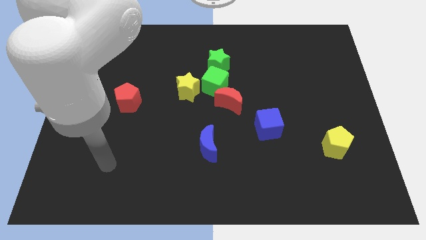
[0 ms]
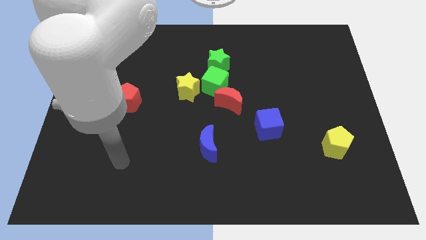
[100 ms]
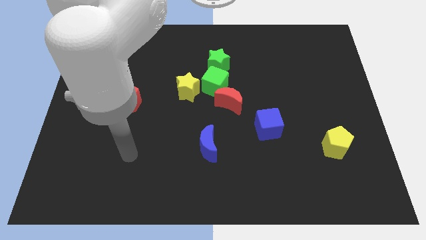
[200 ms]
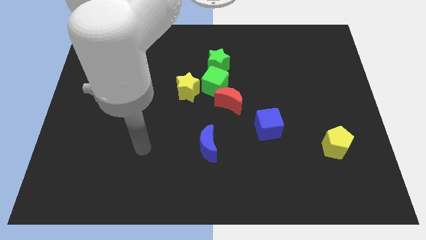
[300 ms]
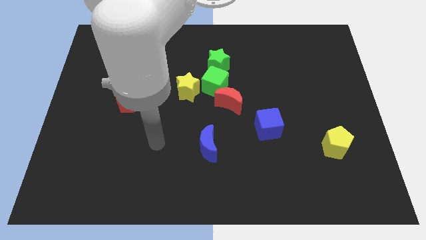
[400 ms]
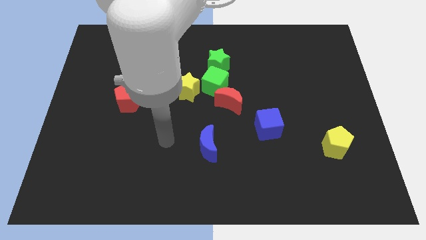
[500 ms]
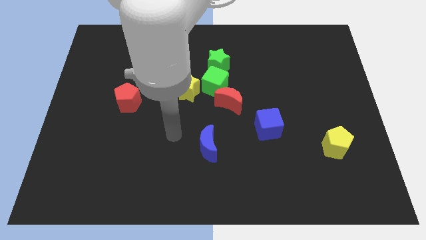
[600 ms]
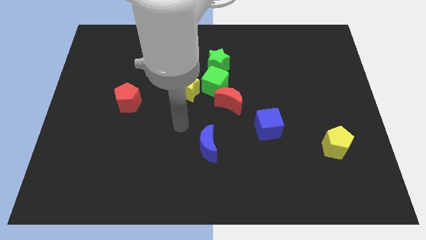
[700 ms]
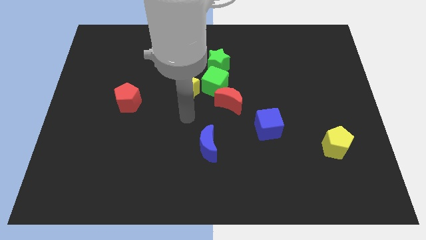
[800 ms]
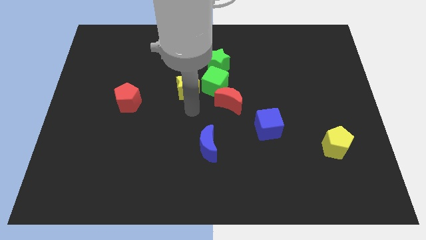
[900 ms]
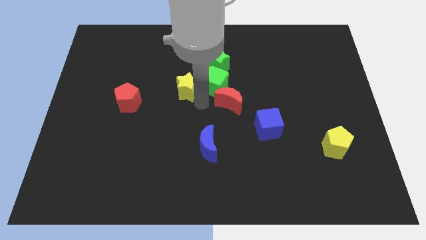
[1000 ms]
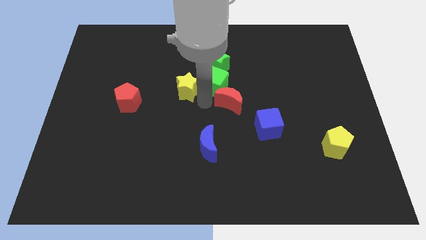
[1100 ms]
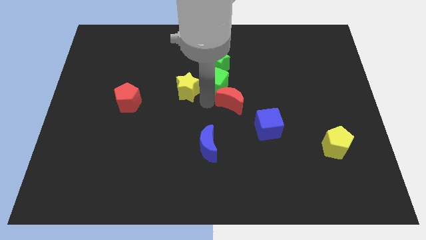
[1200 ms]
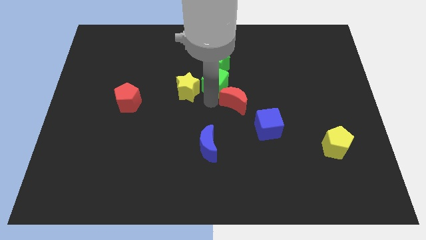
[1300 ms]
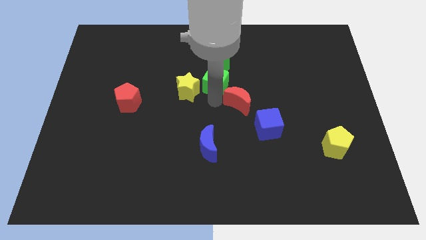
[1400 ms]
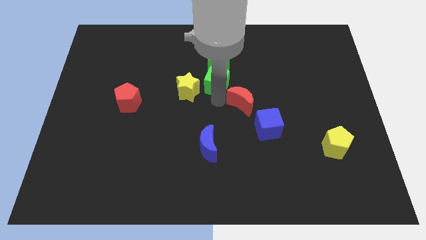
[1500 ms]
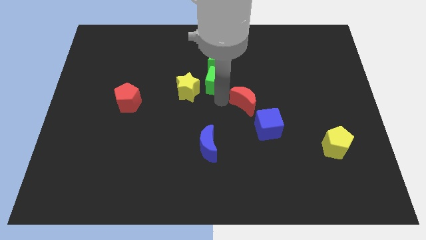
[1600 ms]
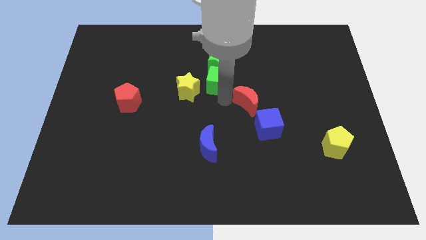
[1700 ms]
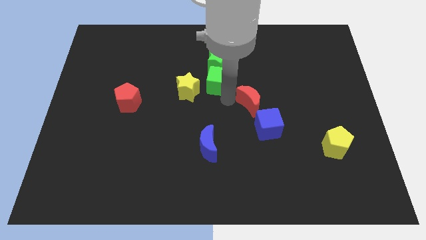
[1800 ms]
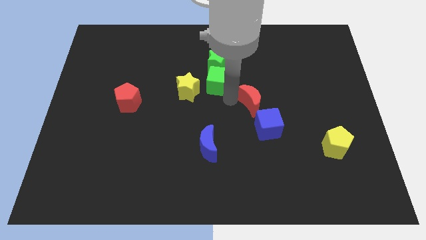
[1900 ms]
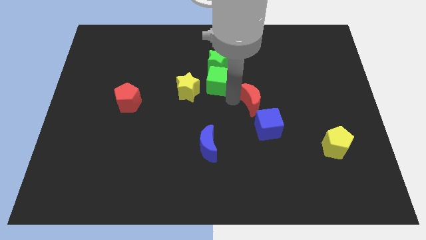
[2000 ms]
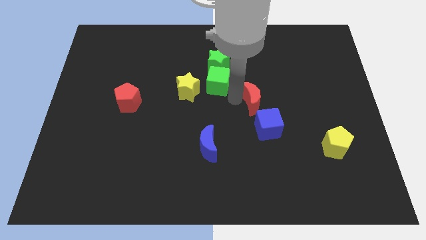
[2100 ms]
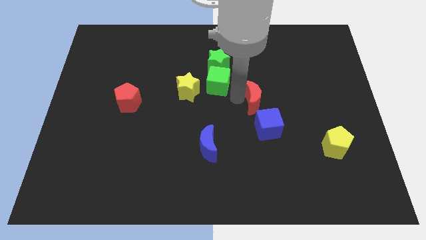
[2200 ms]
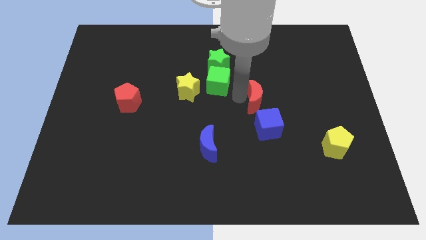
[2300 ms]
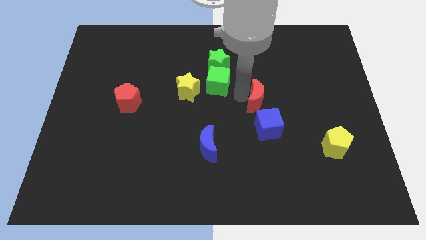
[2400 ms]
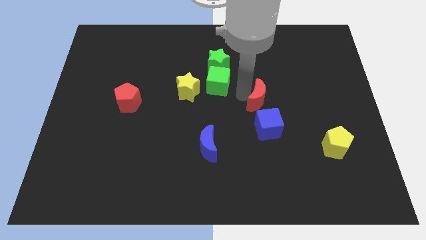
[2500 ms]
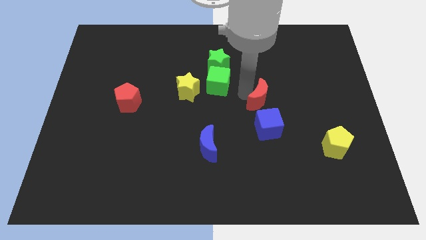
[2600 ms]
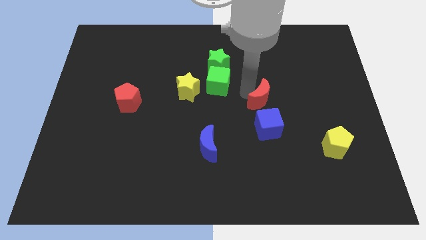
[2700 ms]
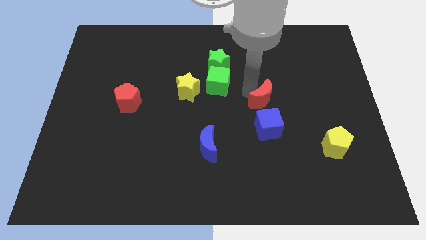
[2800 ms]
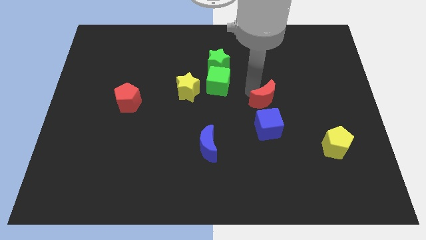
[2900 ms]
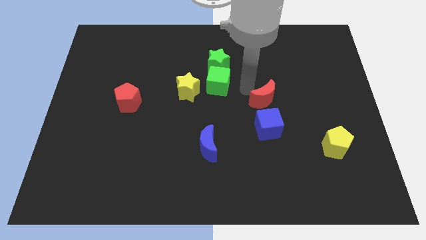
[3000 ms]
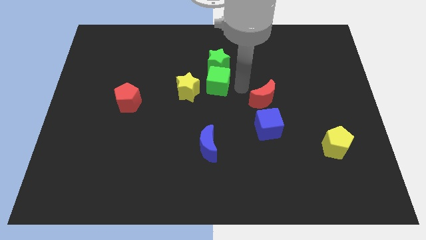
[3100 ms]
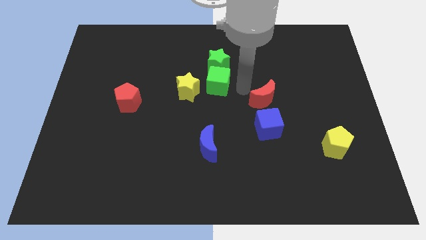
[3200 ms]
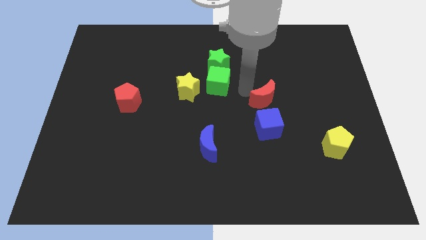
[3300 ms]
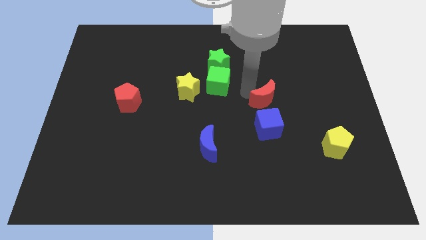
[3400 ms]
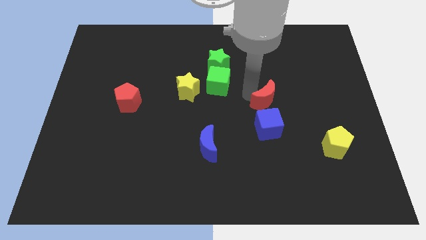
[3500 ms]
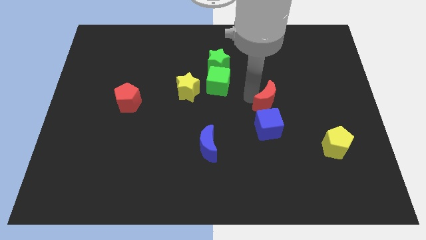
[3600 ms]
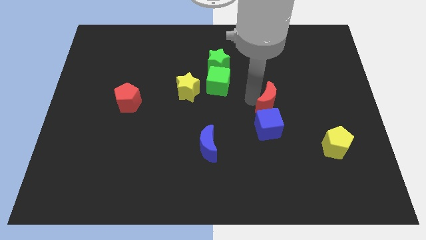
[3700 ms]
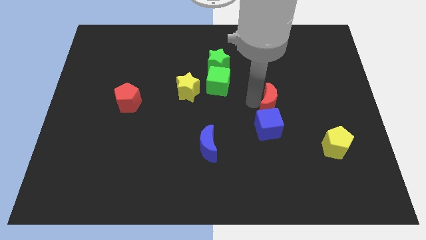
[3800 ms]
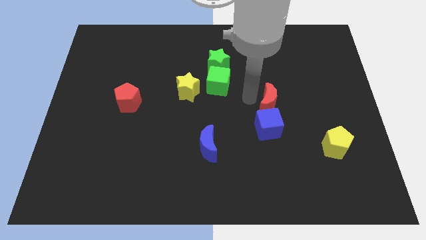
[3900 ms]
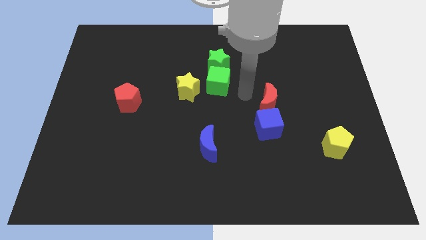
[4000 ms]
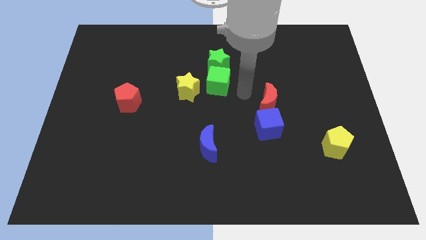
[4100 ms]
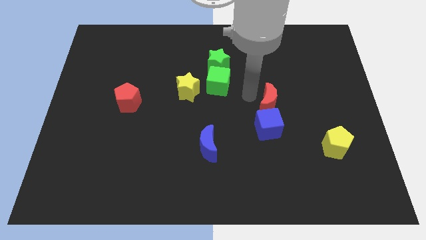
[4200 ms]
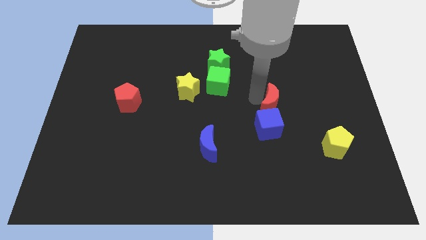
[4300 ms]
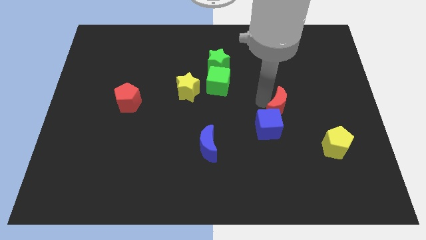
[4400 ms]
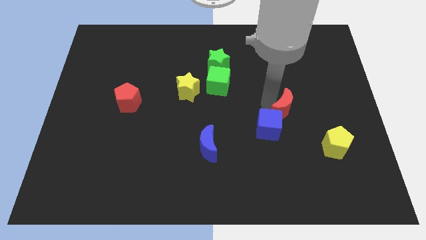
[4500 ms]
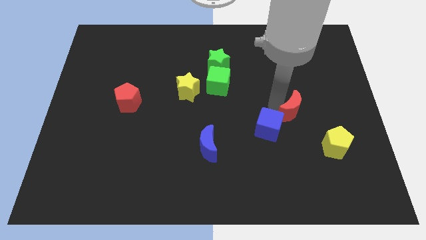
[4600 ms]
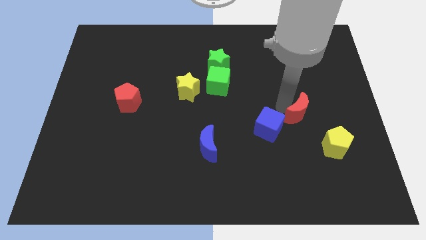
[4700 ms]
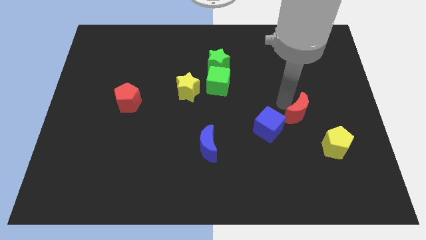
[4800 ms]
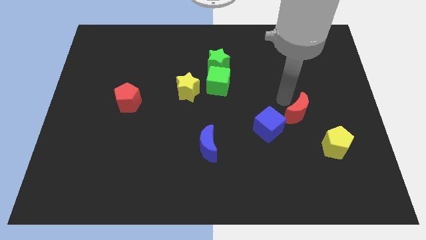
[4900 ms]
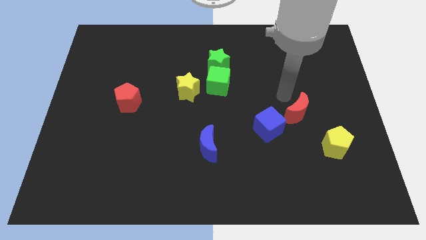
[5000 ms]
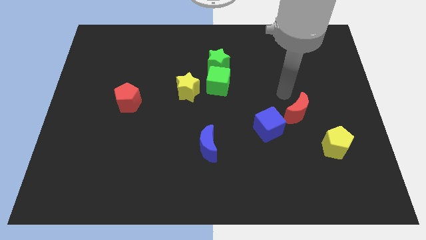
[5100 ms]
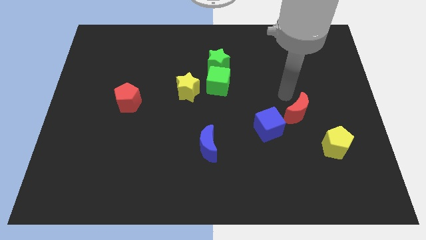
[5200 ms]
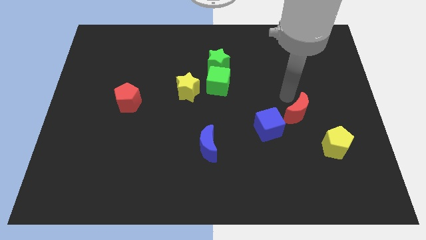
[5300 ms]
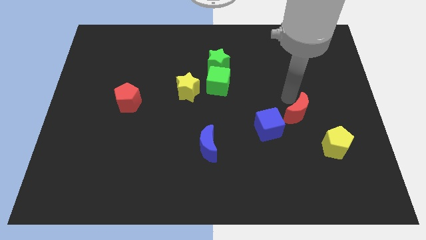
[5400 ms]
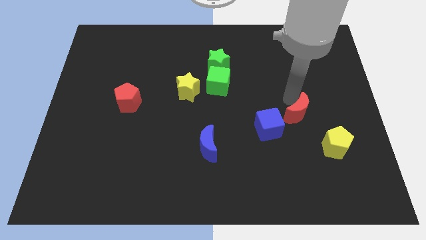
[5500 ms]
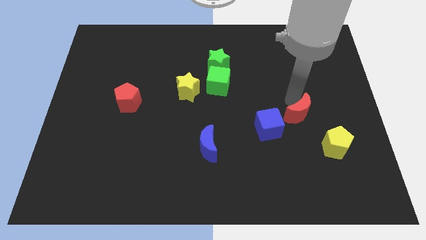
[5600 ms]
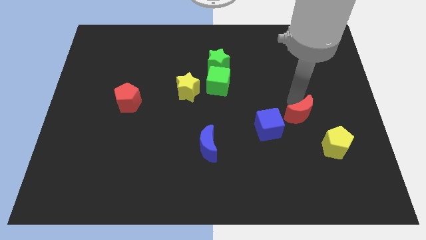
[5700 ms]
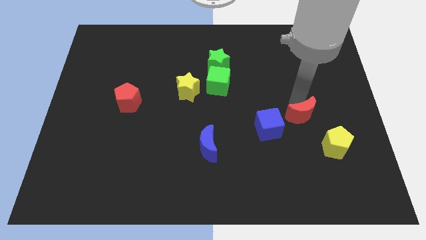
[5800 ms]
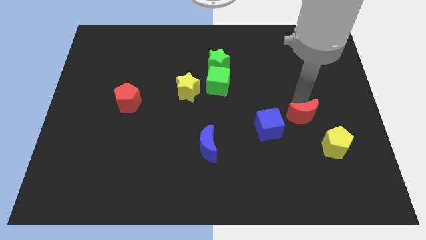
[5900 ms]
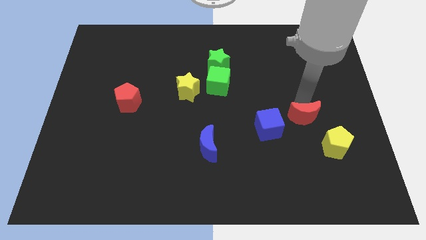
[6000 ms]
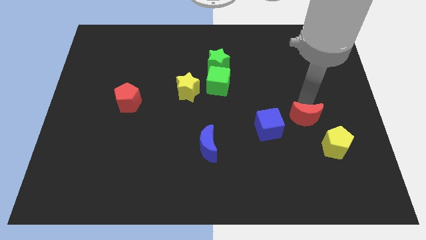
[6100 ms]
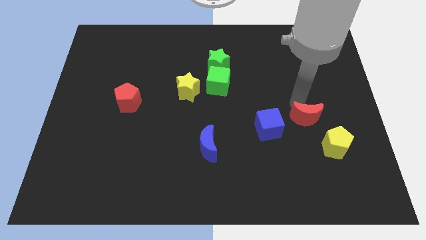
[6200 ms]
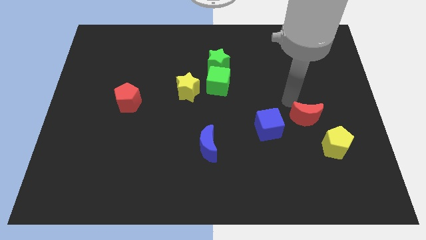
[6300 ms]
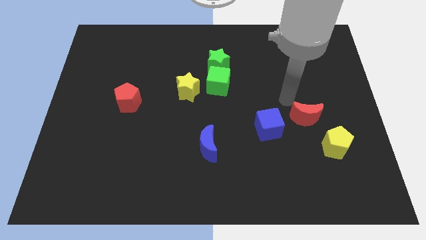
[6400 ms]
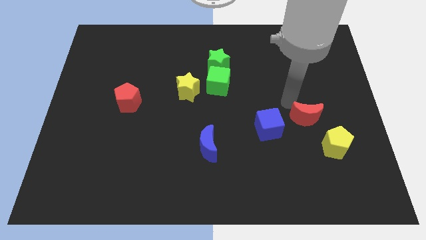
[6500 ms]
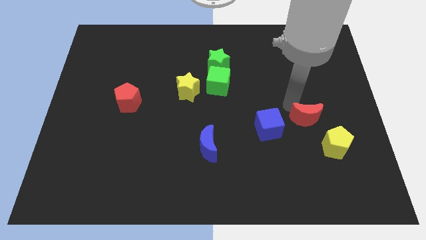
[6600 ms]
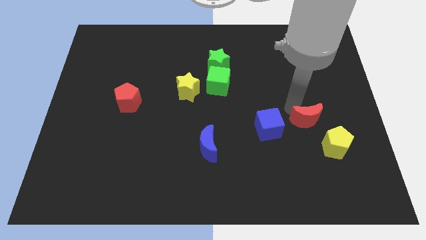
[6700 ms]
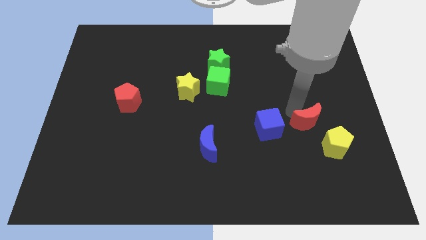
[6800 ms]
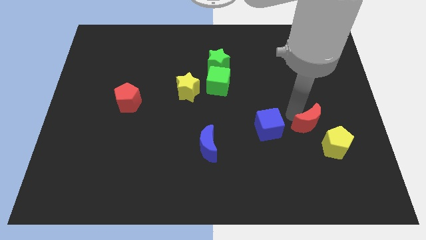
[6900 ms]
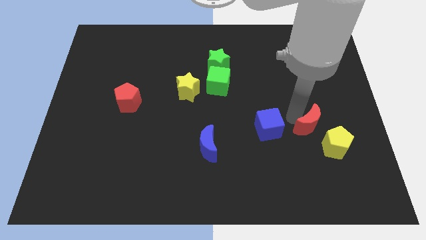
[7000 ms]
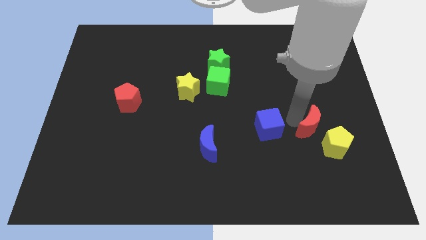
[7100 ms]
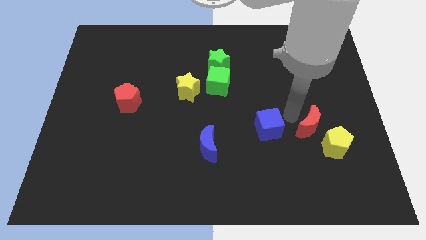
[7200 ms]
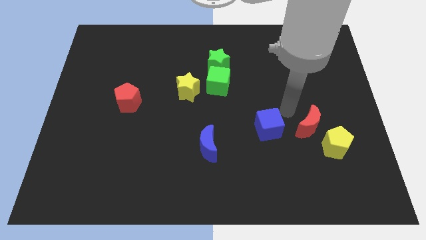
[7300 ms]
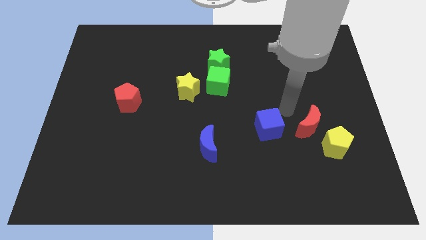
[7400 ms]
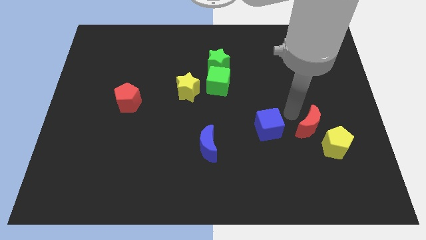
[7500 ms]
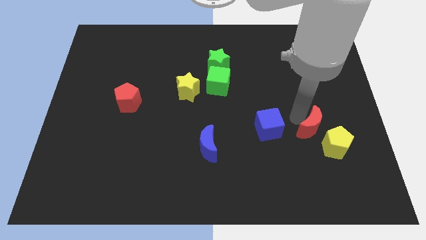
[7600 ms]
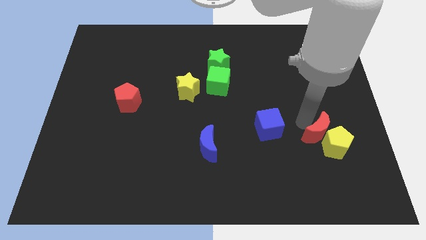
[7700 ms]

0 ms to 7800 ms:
move the red moon close to the yellow pentagon
